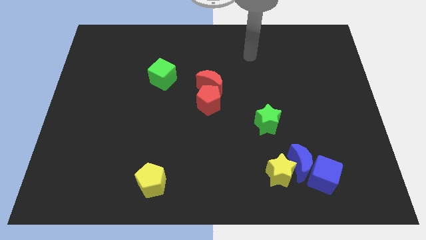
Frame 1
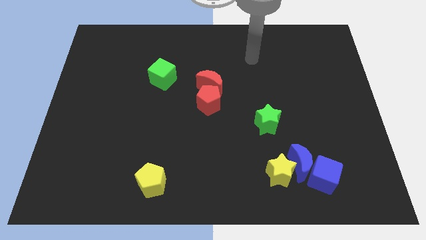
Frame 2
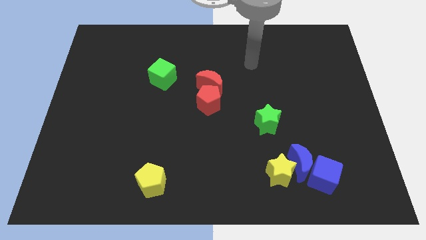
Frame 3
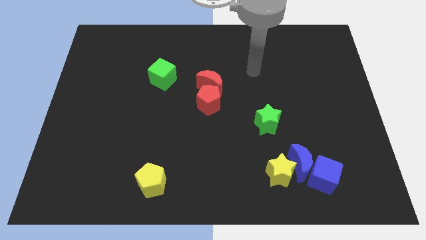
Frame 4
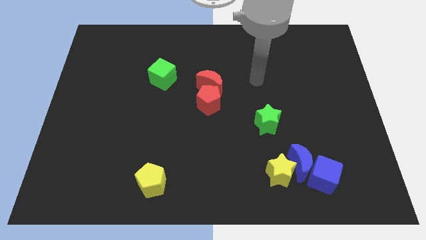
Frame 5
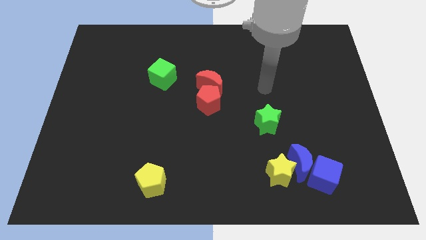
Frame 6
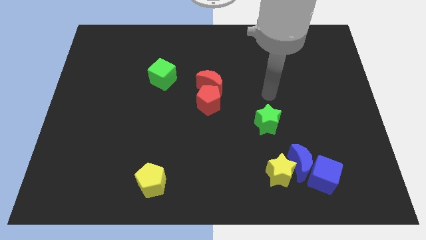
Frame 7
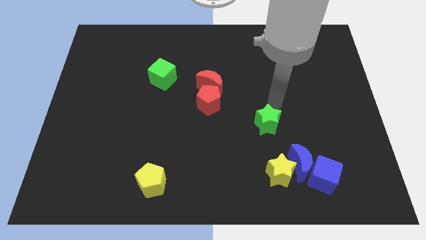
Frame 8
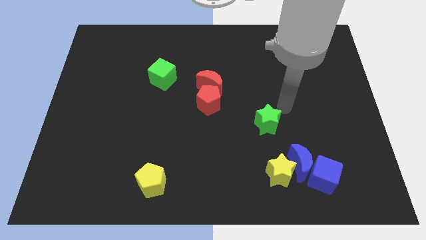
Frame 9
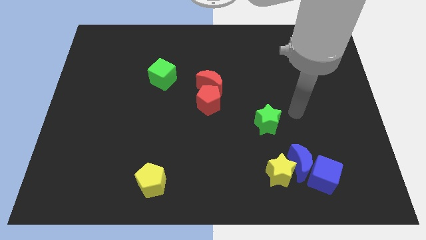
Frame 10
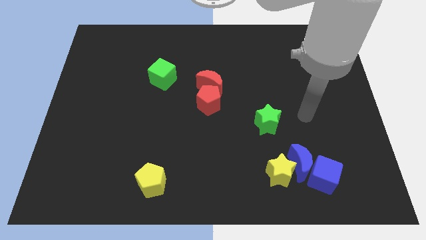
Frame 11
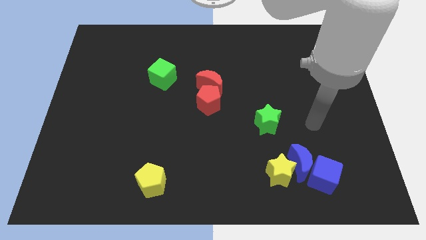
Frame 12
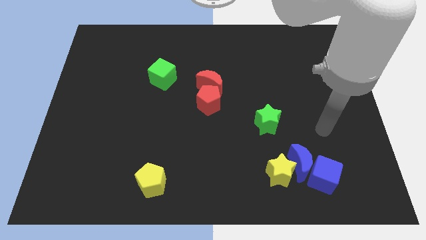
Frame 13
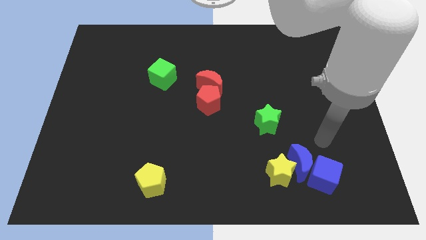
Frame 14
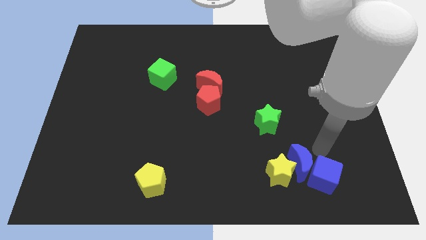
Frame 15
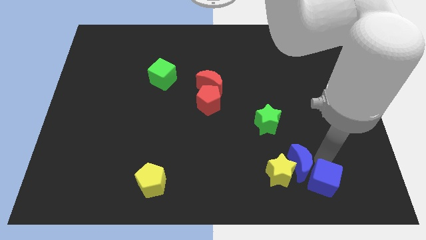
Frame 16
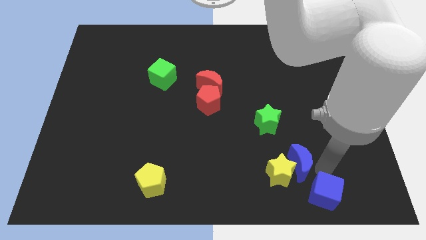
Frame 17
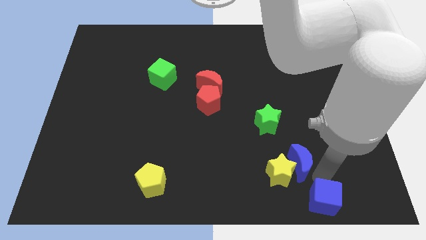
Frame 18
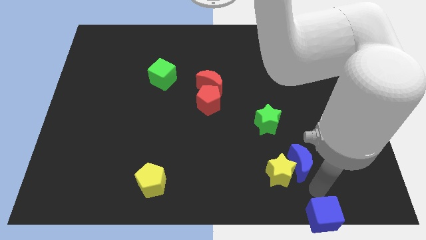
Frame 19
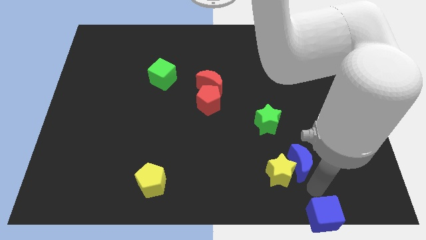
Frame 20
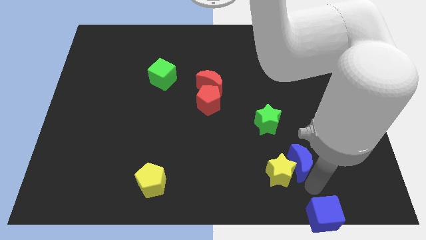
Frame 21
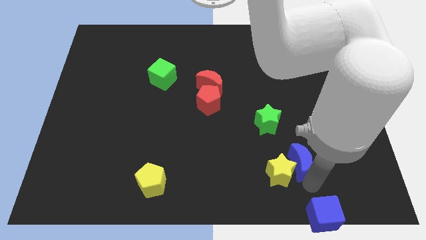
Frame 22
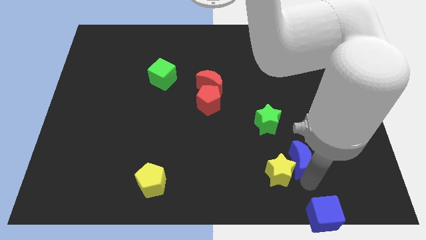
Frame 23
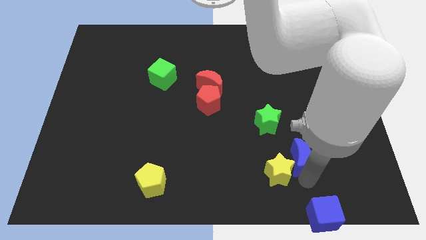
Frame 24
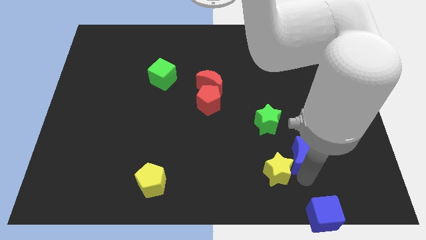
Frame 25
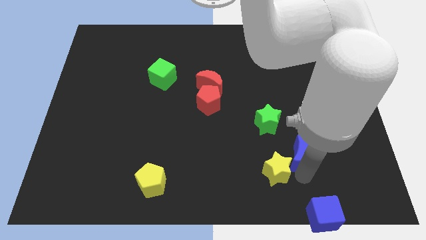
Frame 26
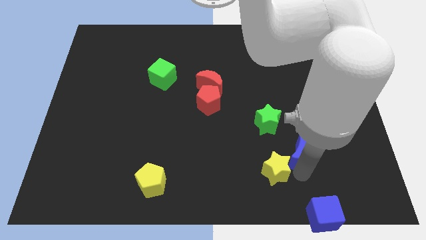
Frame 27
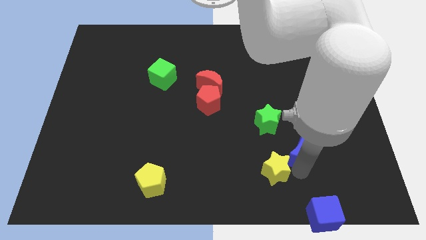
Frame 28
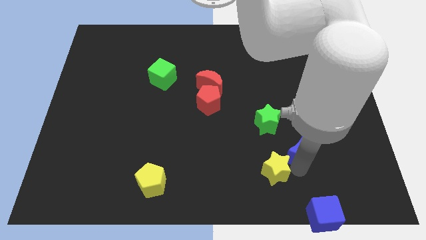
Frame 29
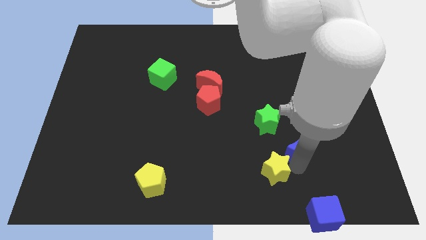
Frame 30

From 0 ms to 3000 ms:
separate the blue moon from the yellow star and blue cube

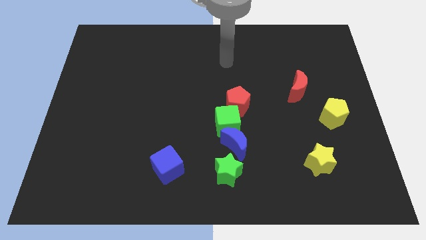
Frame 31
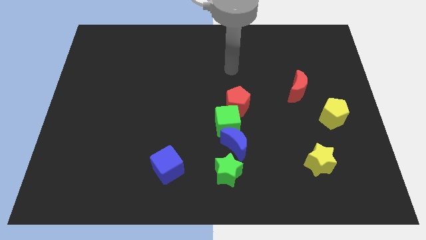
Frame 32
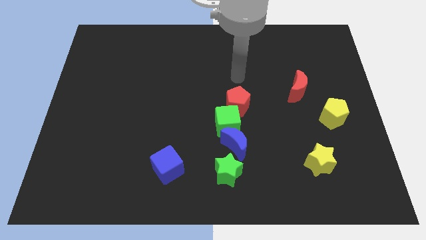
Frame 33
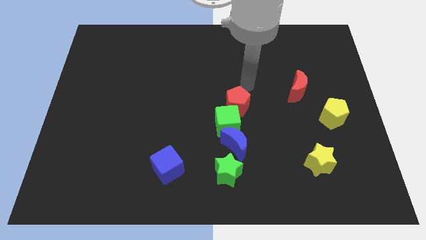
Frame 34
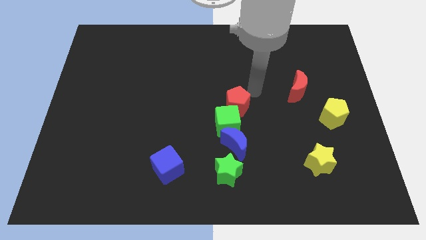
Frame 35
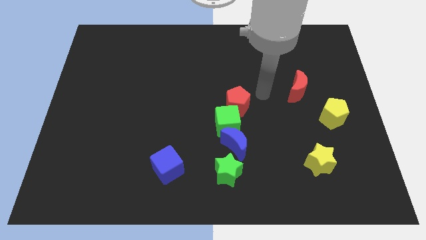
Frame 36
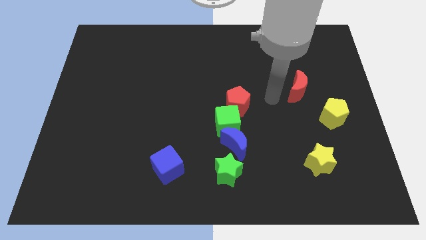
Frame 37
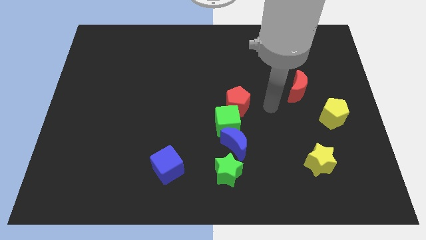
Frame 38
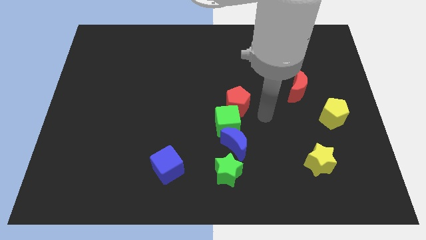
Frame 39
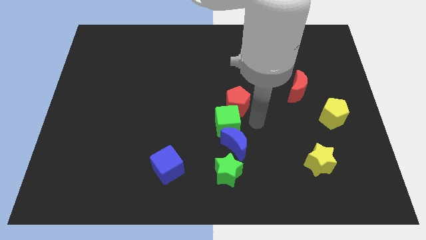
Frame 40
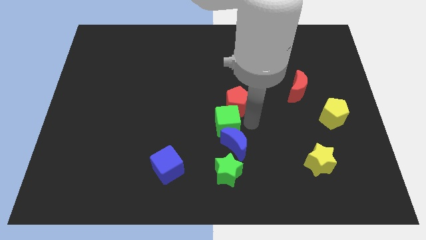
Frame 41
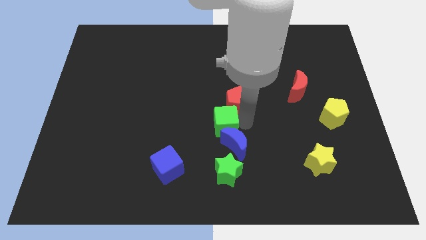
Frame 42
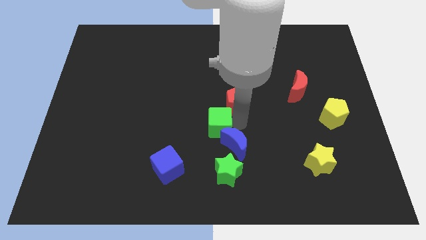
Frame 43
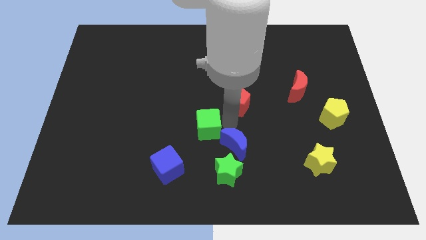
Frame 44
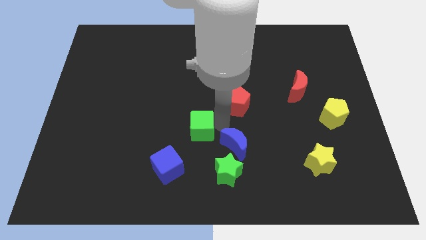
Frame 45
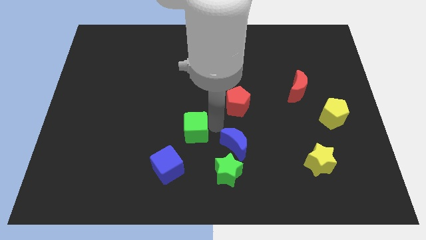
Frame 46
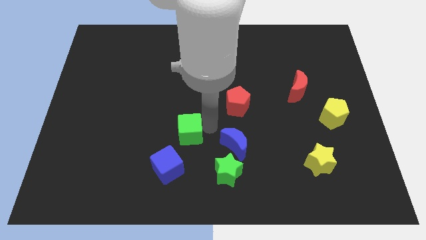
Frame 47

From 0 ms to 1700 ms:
move the green cube away from the blue moon and red pentagon

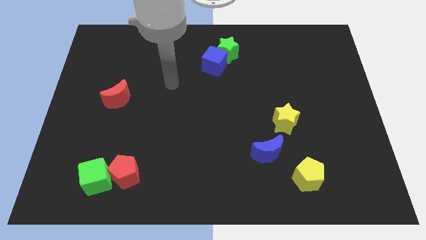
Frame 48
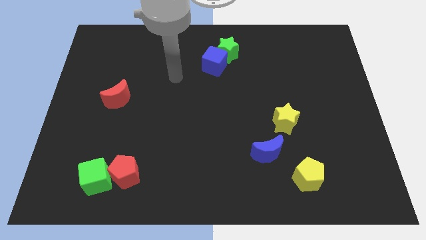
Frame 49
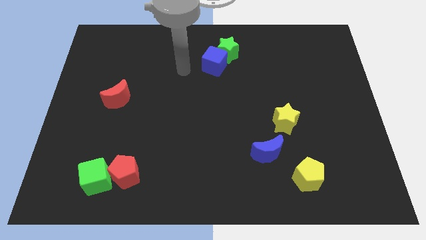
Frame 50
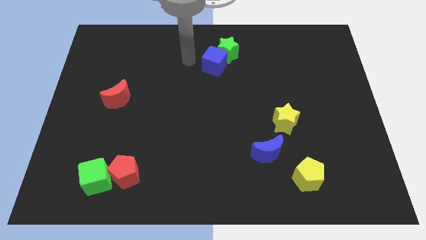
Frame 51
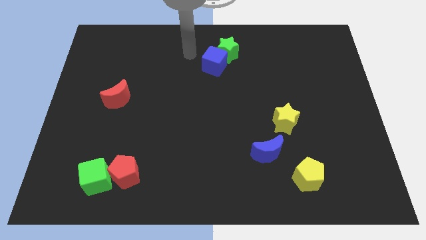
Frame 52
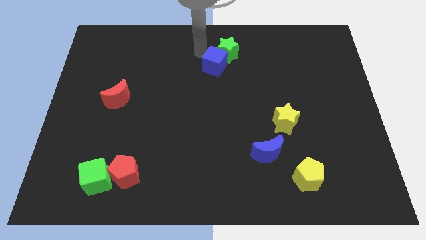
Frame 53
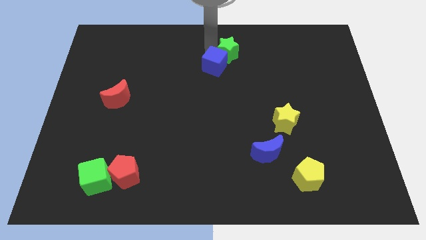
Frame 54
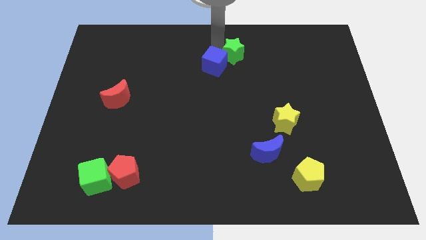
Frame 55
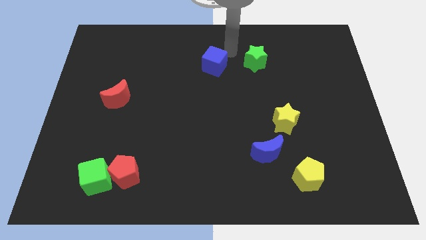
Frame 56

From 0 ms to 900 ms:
pull the blue cube apart from the green star

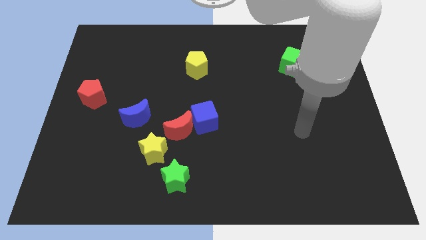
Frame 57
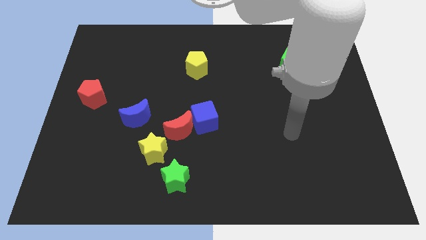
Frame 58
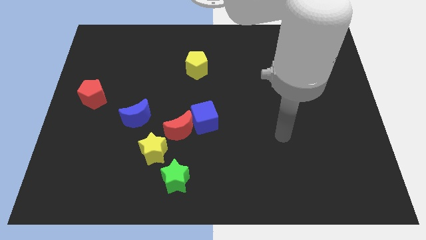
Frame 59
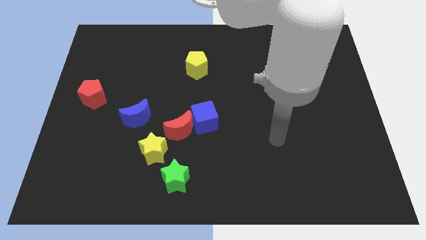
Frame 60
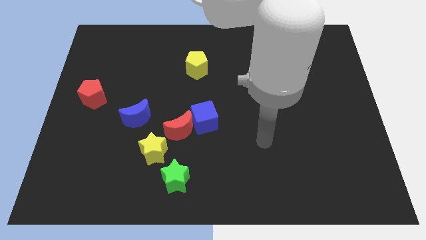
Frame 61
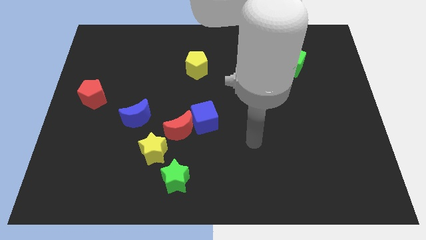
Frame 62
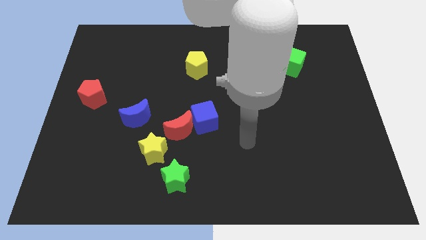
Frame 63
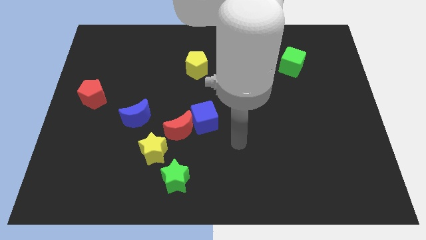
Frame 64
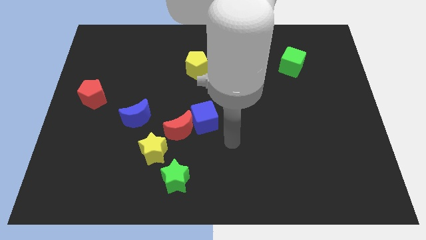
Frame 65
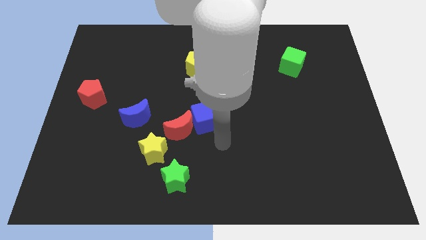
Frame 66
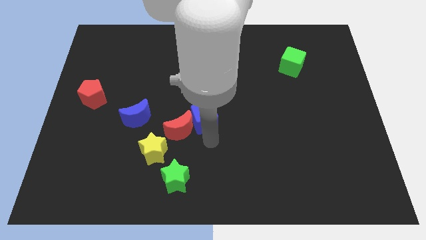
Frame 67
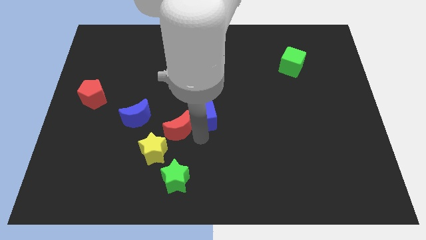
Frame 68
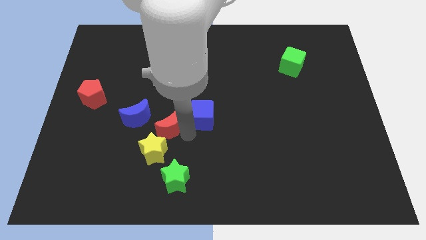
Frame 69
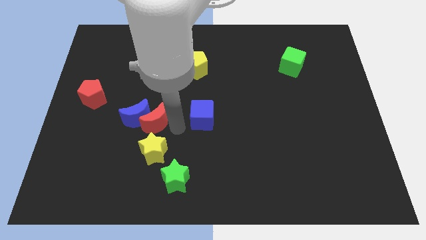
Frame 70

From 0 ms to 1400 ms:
move the blue cube away from the red moon

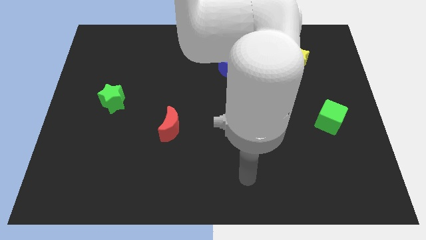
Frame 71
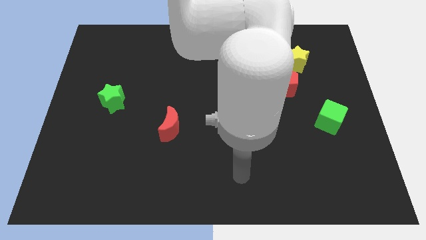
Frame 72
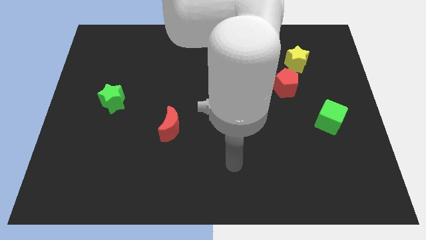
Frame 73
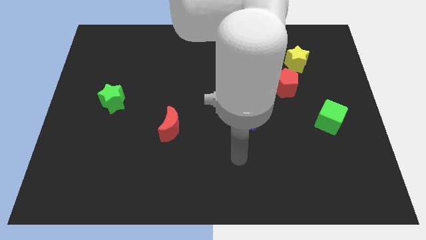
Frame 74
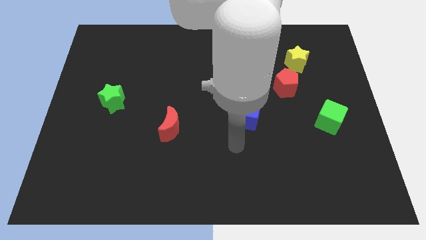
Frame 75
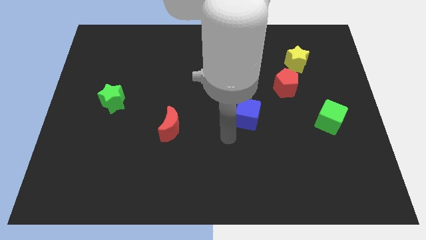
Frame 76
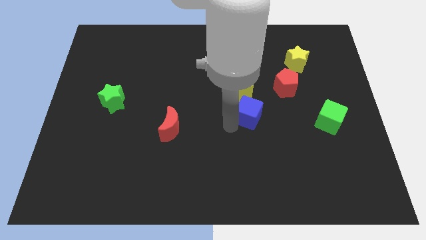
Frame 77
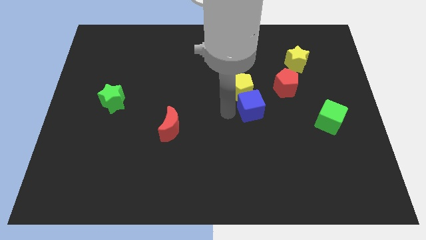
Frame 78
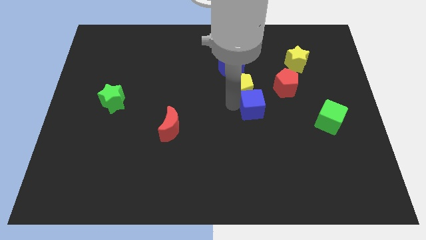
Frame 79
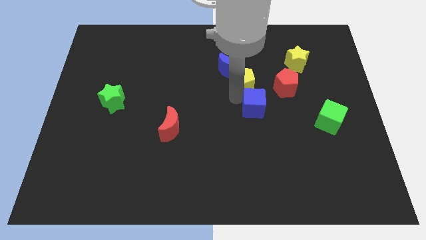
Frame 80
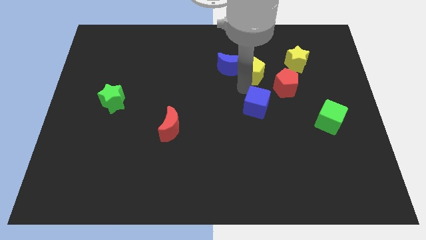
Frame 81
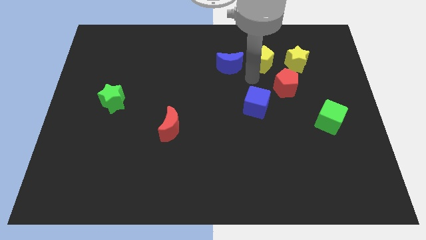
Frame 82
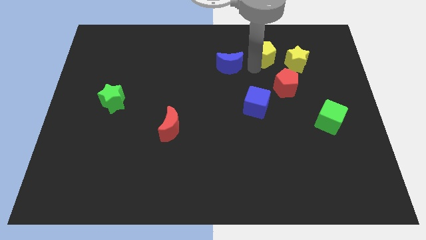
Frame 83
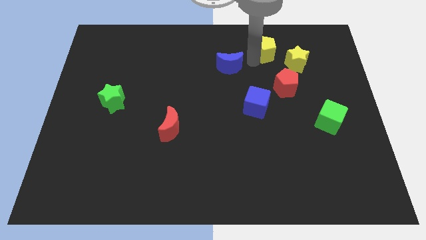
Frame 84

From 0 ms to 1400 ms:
move the blue moon away from the yellow pentagon

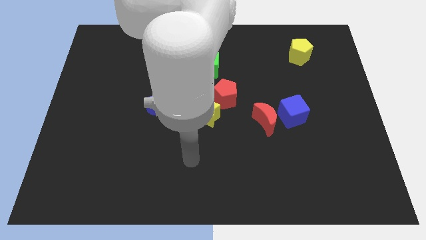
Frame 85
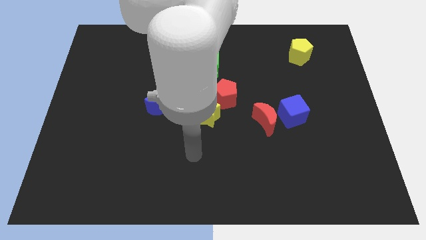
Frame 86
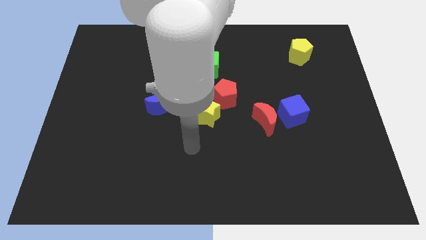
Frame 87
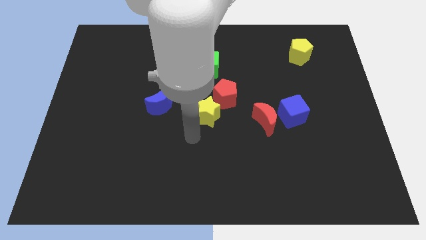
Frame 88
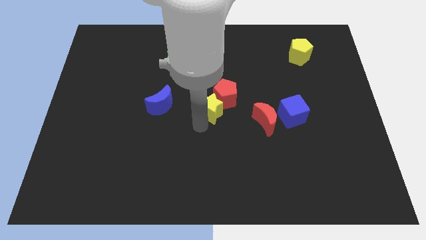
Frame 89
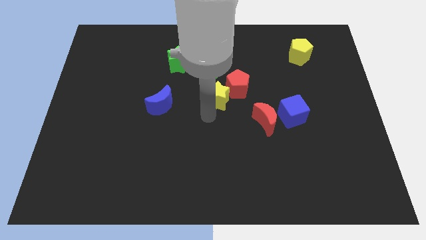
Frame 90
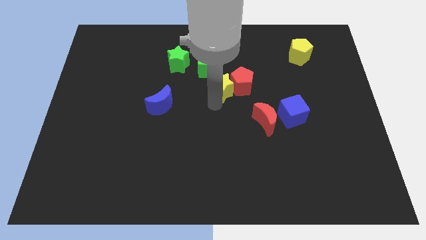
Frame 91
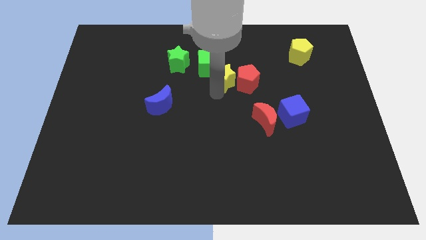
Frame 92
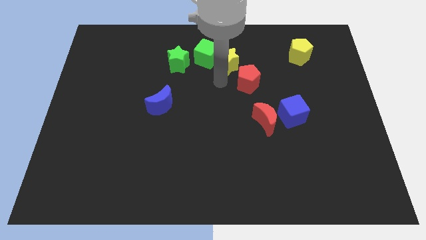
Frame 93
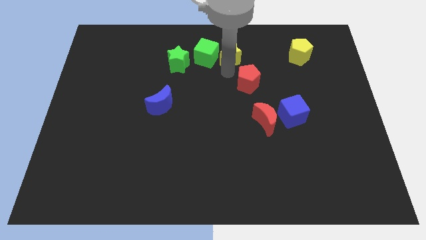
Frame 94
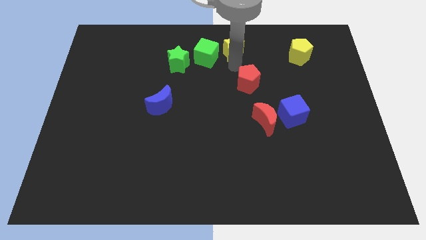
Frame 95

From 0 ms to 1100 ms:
pull the red pentagon apart from the yellow star
